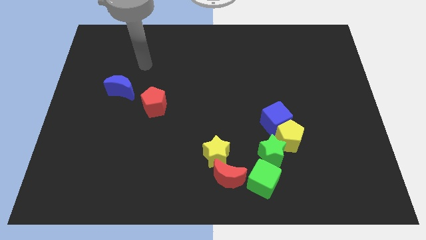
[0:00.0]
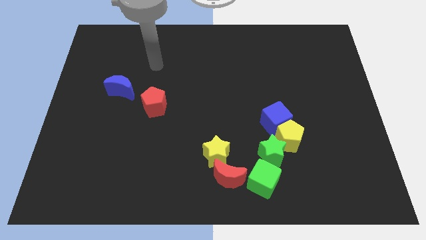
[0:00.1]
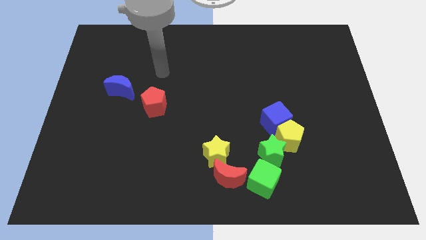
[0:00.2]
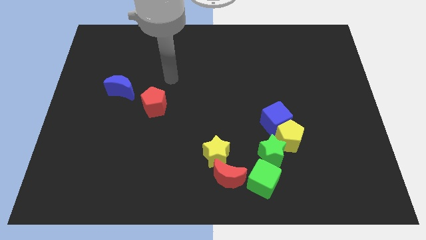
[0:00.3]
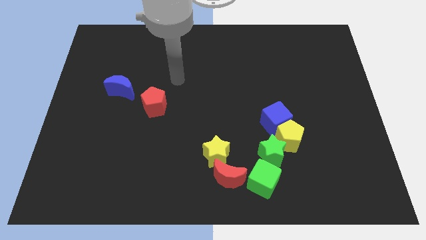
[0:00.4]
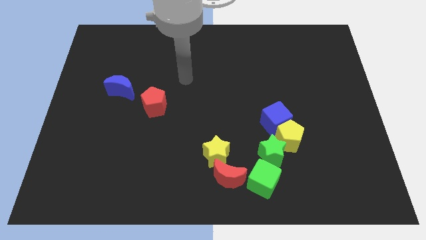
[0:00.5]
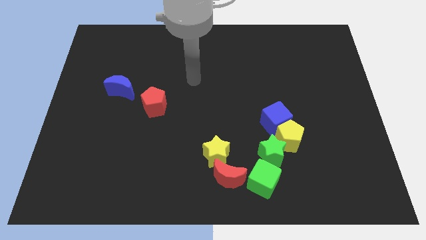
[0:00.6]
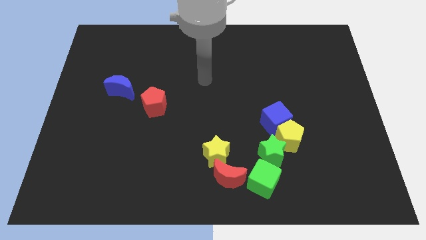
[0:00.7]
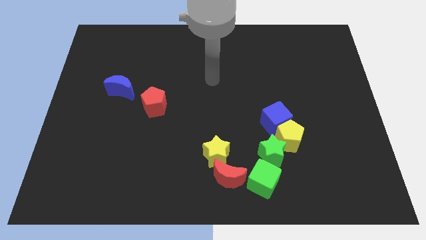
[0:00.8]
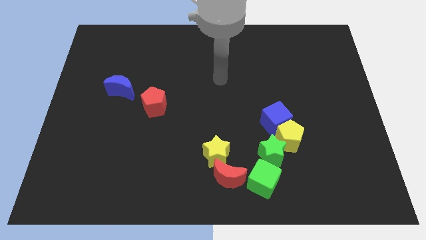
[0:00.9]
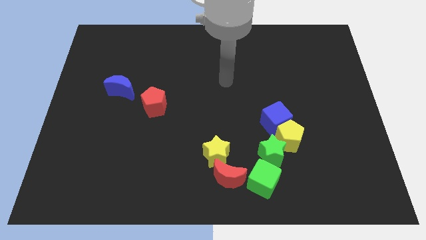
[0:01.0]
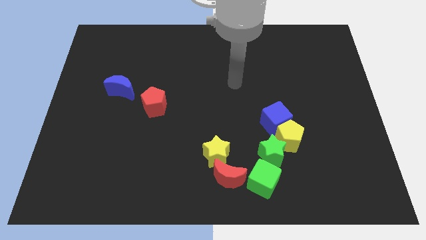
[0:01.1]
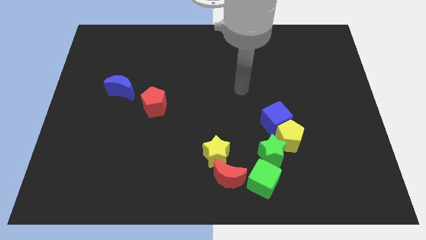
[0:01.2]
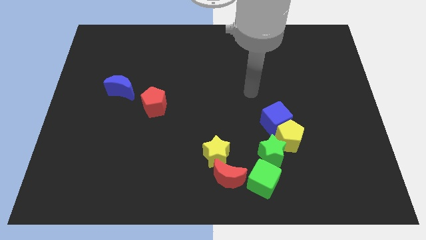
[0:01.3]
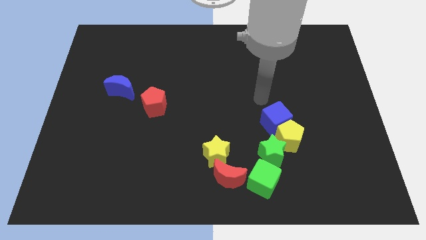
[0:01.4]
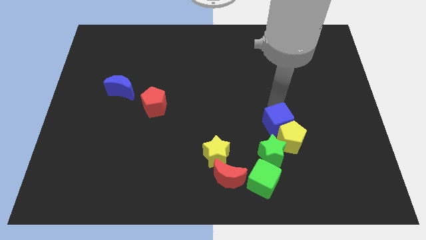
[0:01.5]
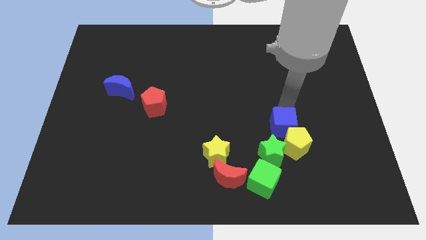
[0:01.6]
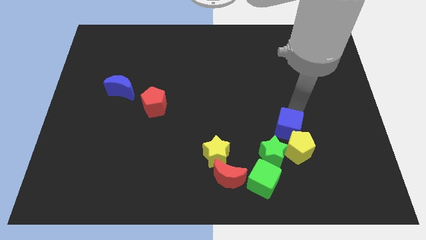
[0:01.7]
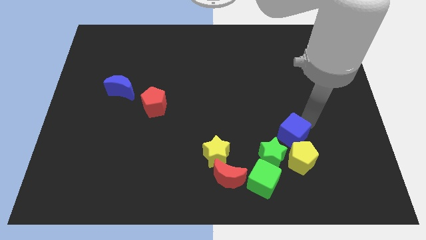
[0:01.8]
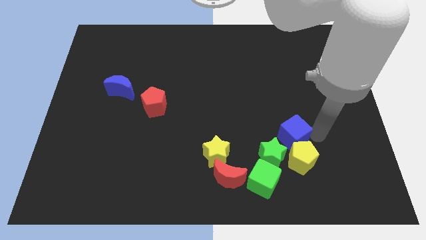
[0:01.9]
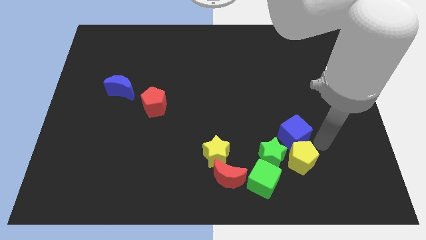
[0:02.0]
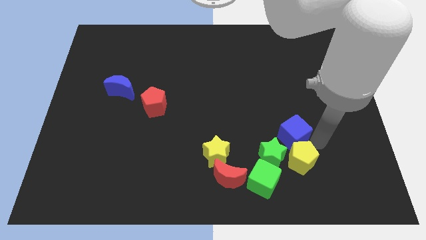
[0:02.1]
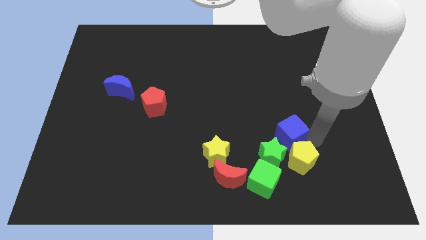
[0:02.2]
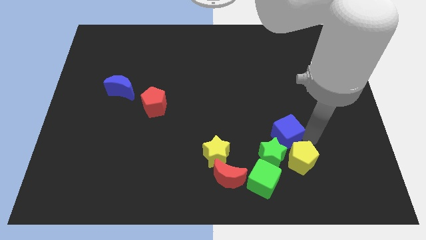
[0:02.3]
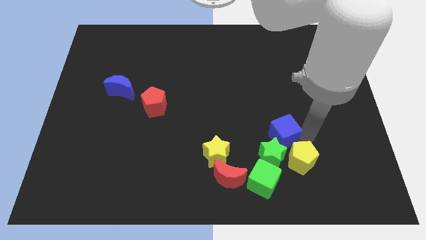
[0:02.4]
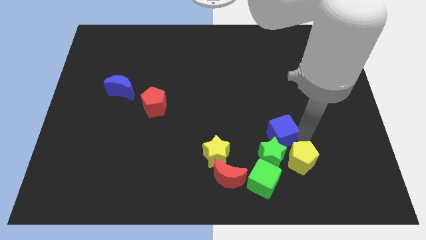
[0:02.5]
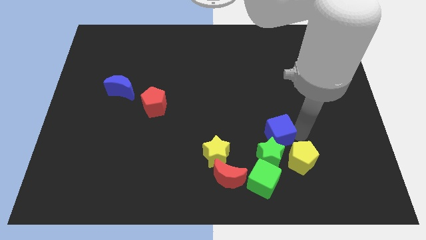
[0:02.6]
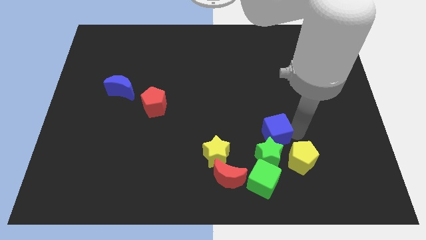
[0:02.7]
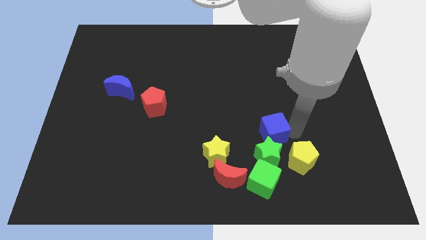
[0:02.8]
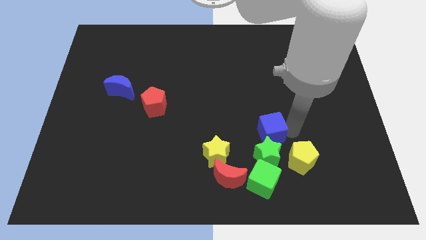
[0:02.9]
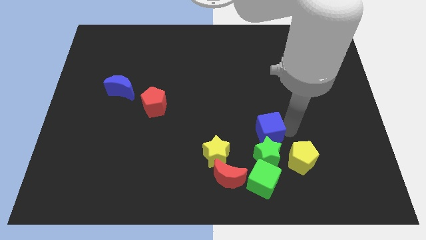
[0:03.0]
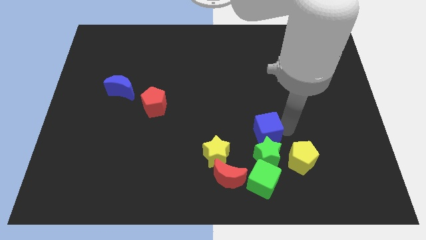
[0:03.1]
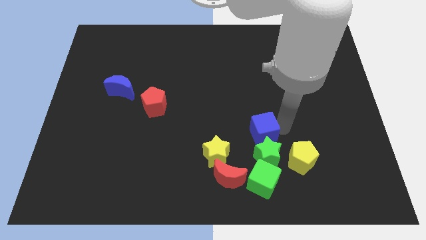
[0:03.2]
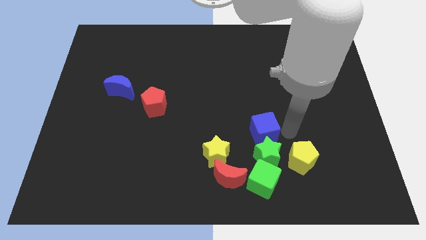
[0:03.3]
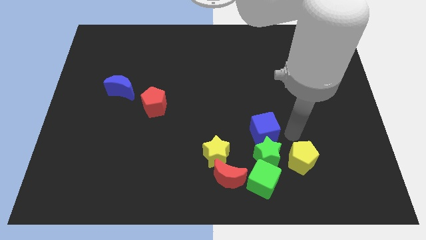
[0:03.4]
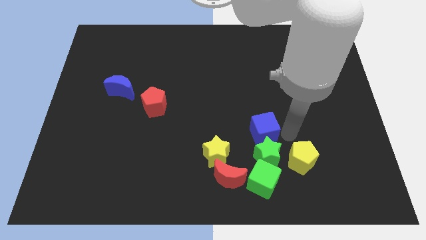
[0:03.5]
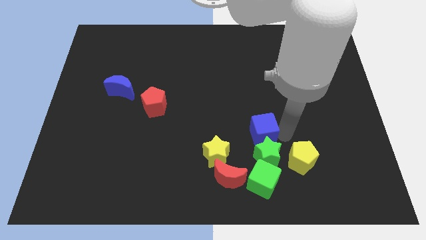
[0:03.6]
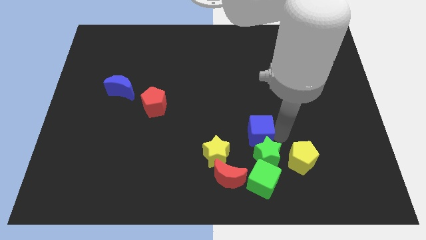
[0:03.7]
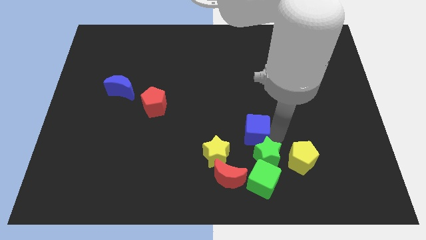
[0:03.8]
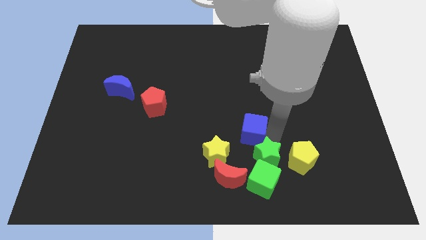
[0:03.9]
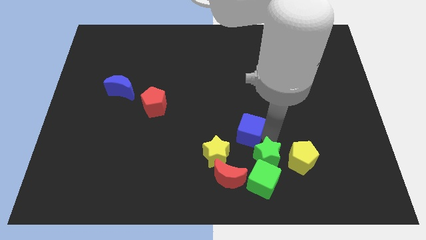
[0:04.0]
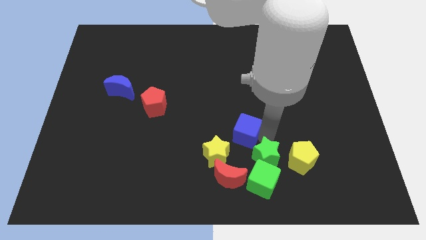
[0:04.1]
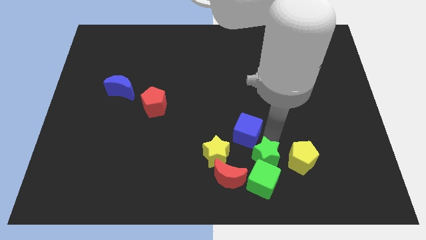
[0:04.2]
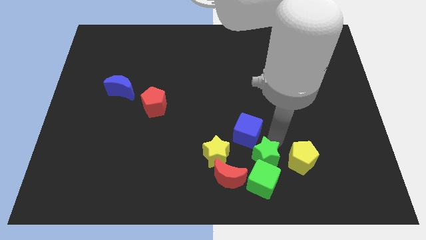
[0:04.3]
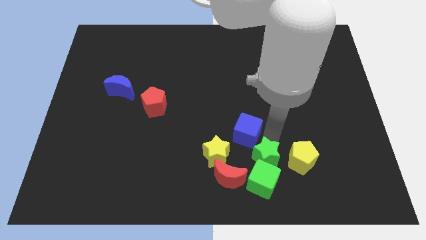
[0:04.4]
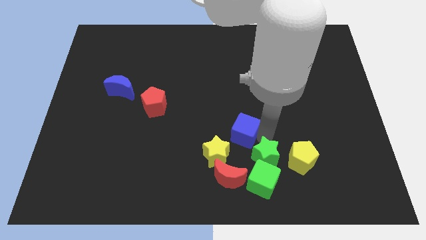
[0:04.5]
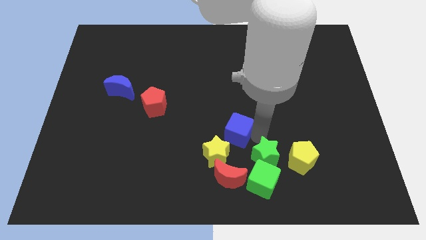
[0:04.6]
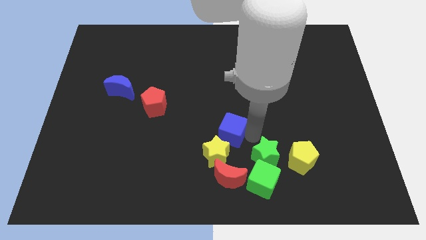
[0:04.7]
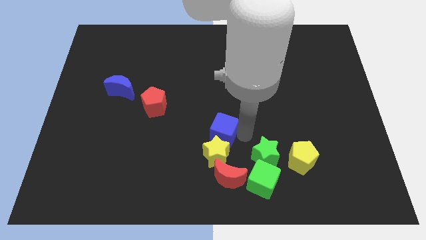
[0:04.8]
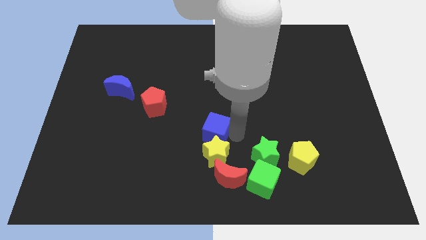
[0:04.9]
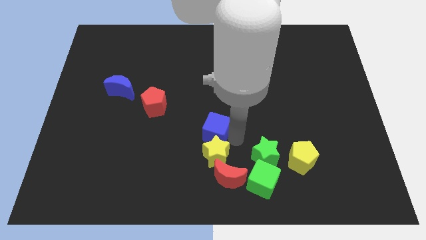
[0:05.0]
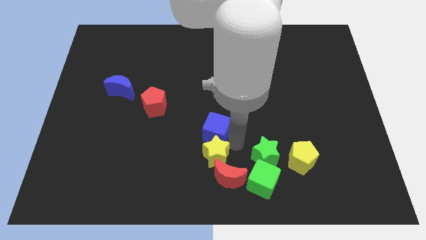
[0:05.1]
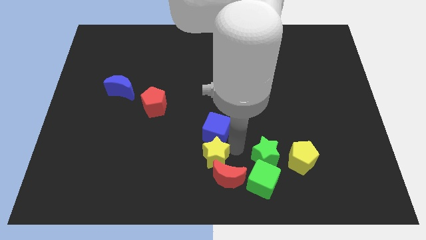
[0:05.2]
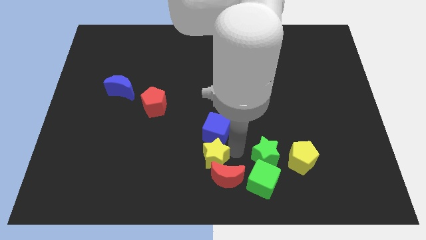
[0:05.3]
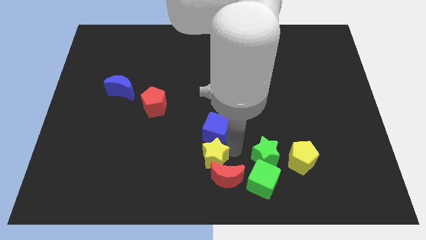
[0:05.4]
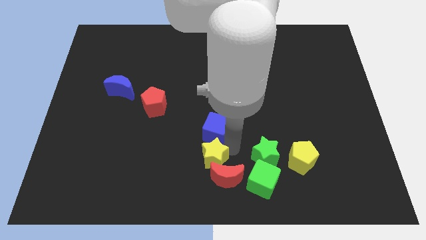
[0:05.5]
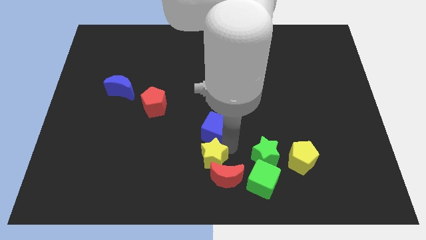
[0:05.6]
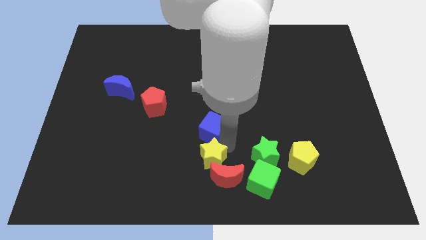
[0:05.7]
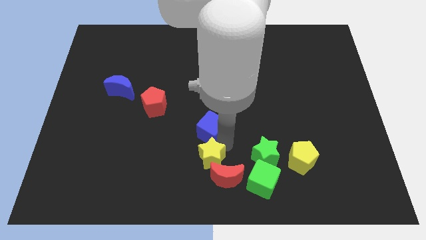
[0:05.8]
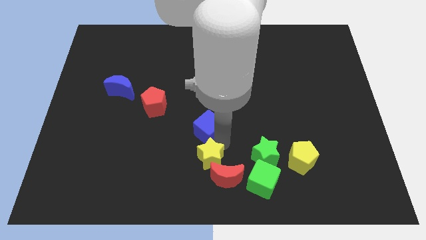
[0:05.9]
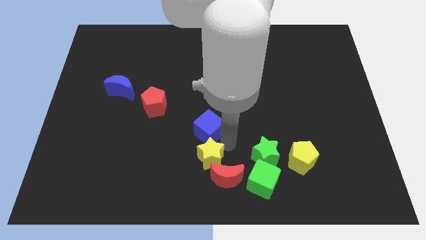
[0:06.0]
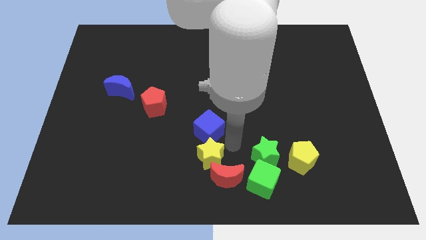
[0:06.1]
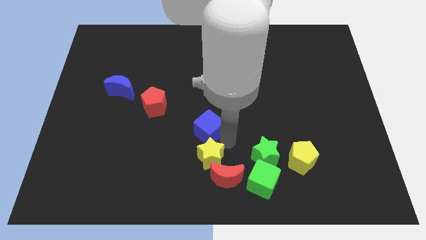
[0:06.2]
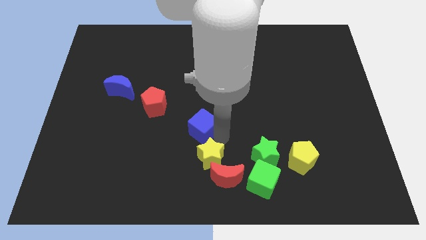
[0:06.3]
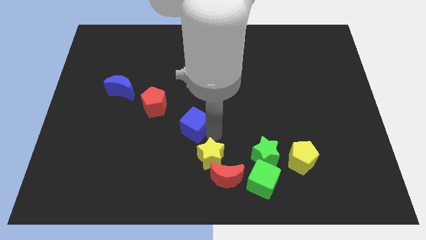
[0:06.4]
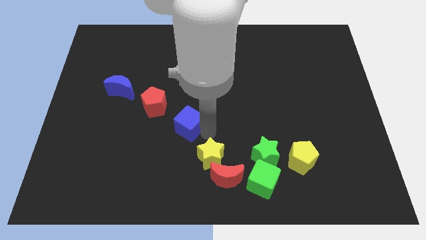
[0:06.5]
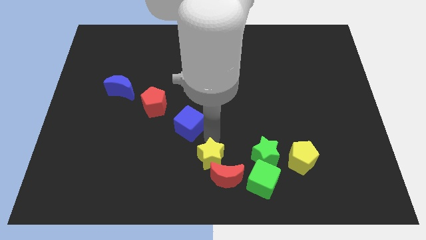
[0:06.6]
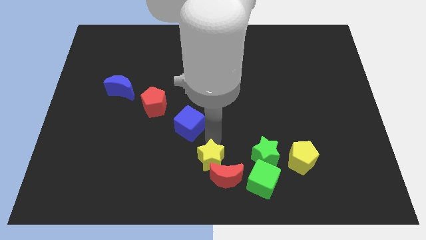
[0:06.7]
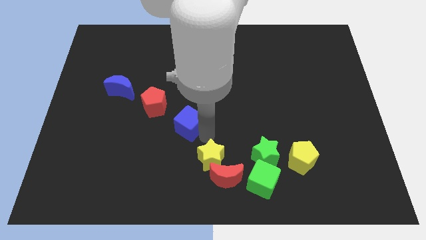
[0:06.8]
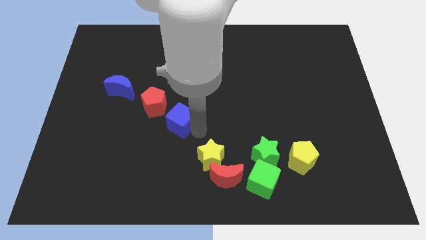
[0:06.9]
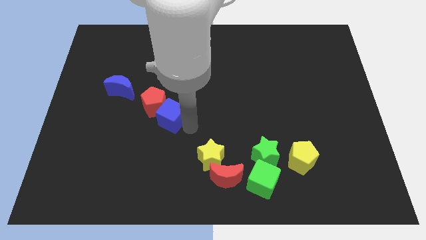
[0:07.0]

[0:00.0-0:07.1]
put the blue cube towards the red pentagon

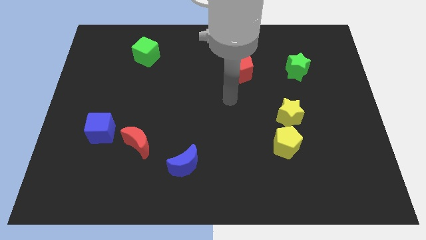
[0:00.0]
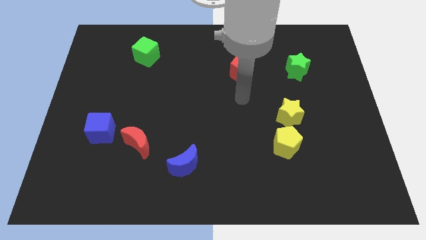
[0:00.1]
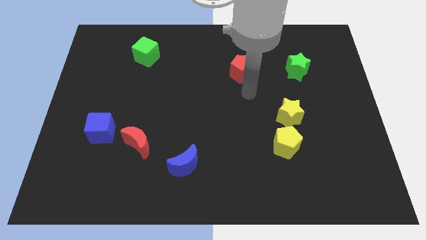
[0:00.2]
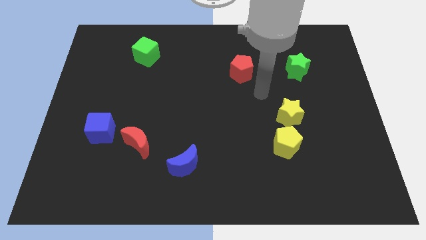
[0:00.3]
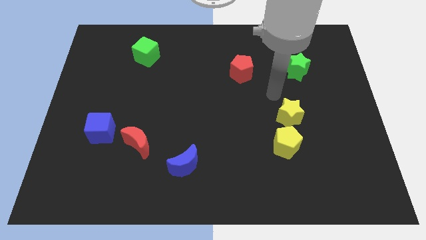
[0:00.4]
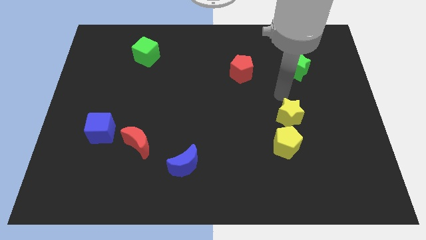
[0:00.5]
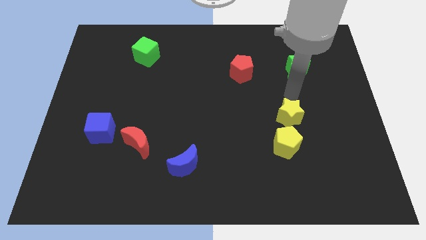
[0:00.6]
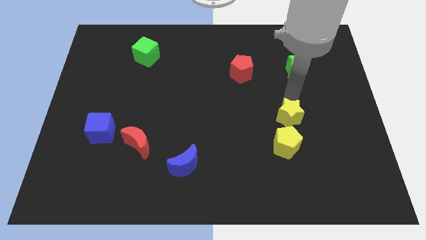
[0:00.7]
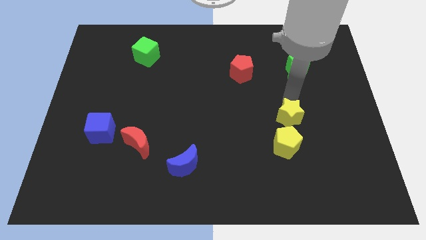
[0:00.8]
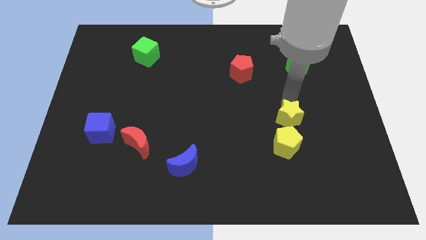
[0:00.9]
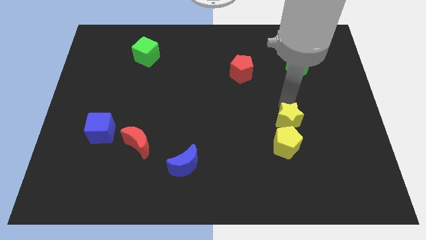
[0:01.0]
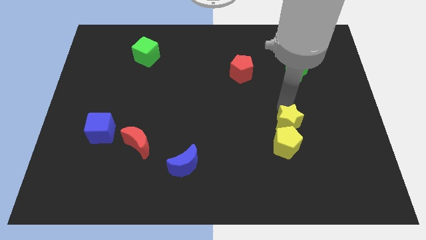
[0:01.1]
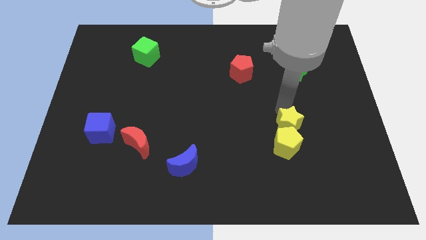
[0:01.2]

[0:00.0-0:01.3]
slide the yellow star next to the yellow pentagon
